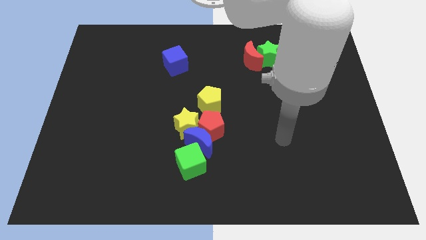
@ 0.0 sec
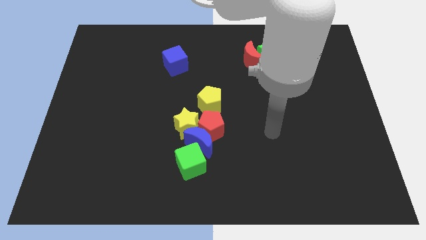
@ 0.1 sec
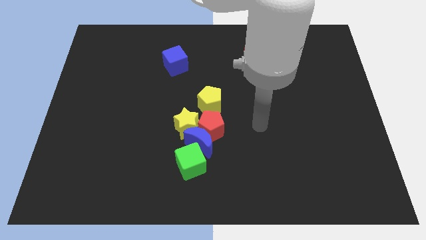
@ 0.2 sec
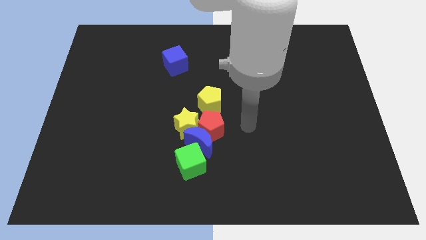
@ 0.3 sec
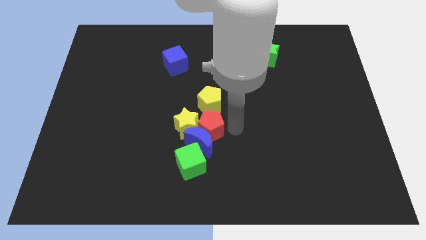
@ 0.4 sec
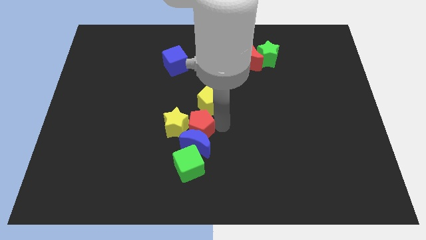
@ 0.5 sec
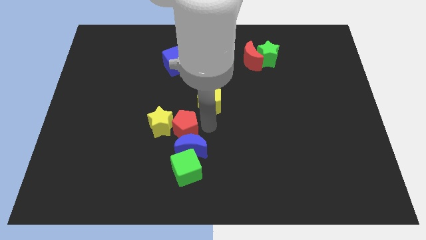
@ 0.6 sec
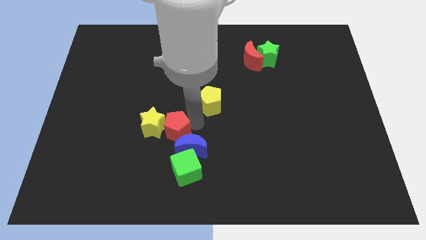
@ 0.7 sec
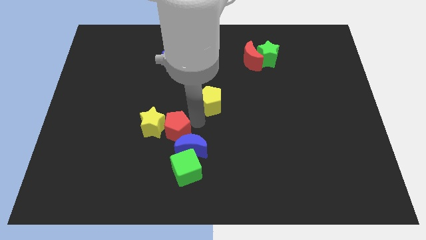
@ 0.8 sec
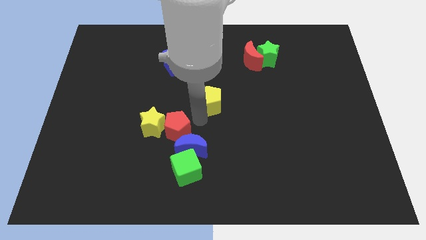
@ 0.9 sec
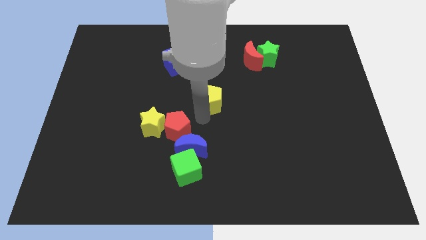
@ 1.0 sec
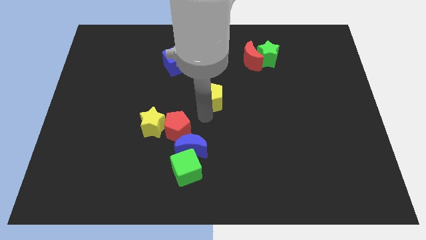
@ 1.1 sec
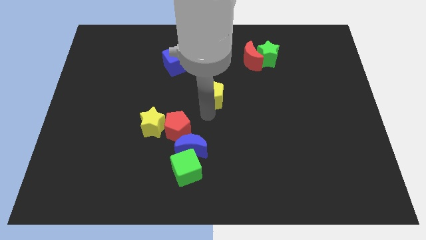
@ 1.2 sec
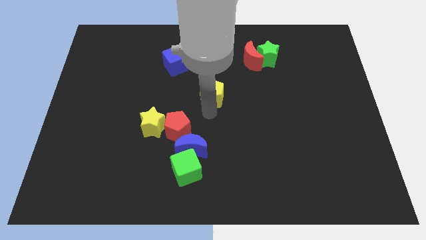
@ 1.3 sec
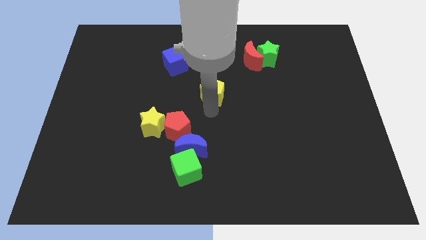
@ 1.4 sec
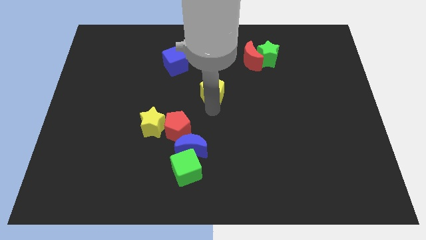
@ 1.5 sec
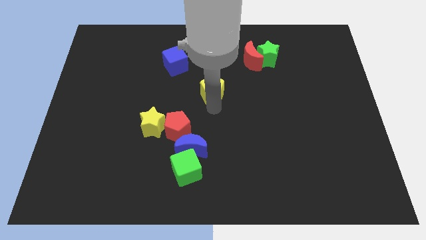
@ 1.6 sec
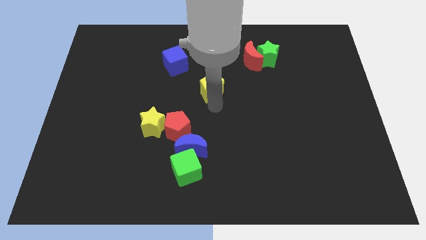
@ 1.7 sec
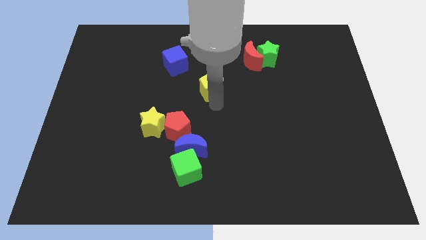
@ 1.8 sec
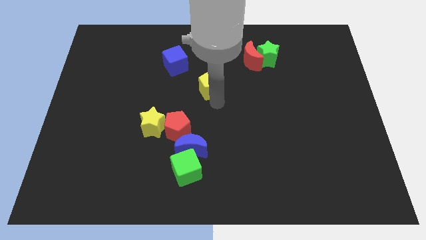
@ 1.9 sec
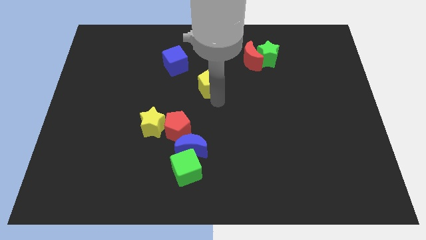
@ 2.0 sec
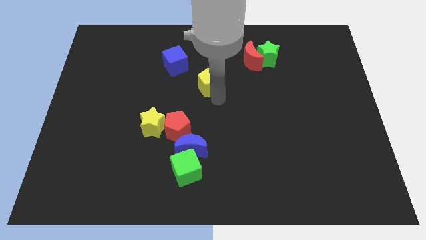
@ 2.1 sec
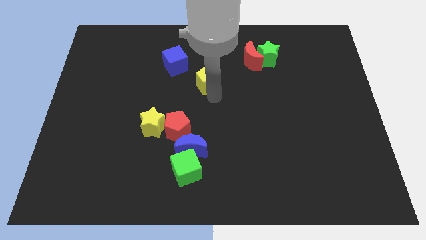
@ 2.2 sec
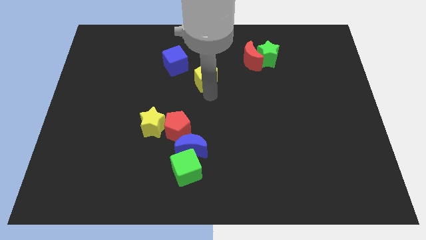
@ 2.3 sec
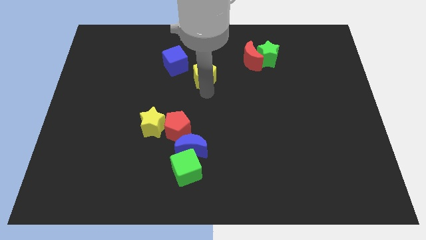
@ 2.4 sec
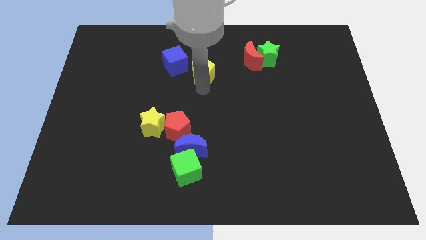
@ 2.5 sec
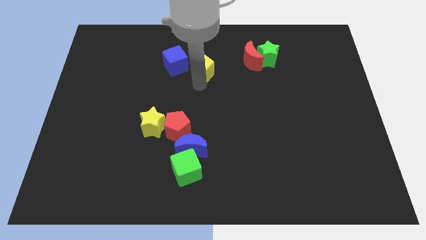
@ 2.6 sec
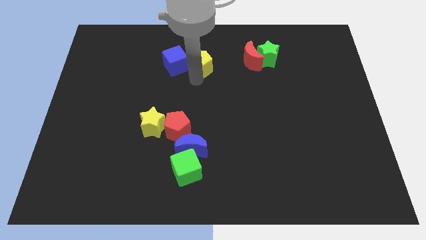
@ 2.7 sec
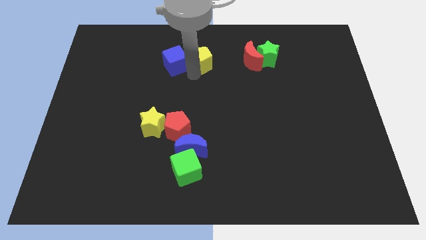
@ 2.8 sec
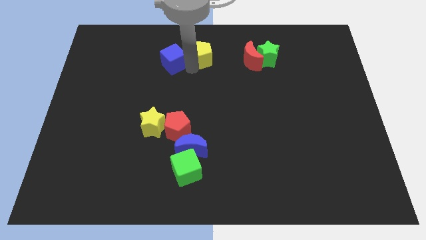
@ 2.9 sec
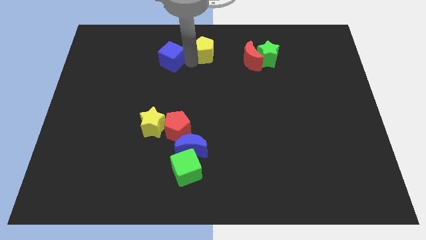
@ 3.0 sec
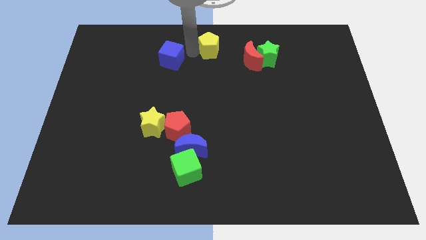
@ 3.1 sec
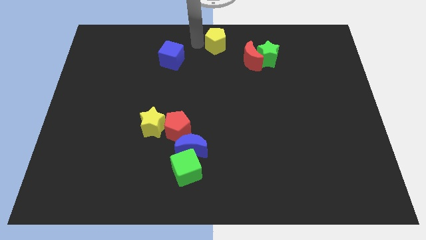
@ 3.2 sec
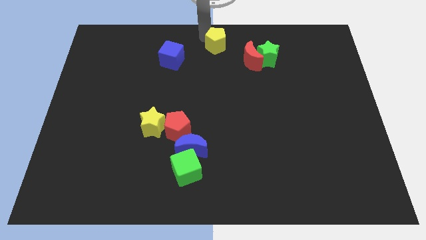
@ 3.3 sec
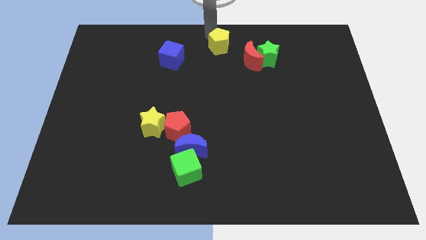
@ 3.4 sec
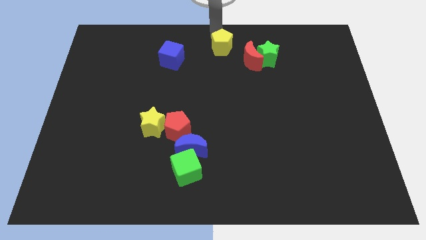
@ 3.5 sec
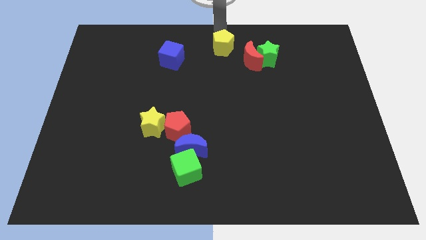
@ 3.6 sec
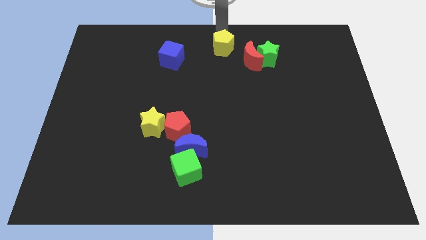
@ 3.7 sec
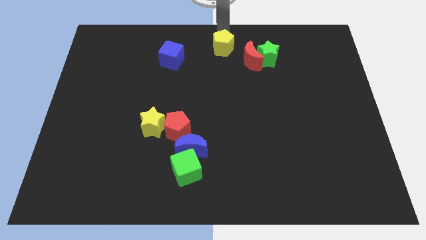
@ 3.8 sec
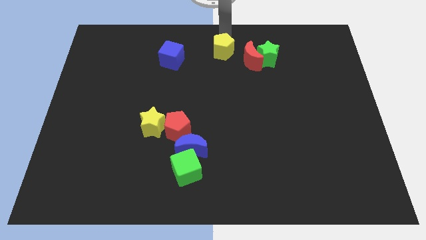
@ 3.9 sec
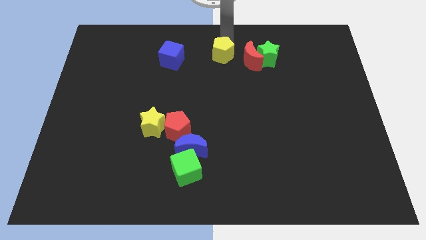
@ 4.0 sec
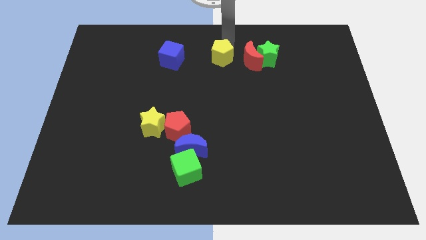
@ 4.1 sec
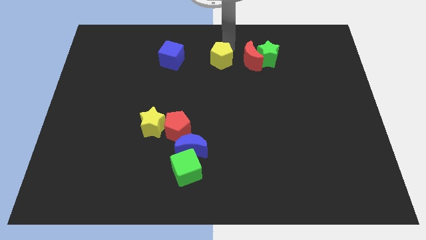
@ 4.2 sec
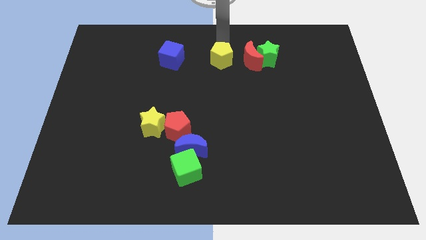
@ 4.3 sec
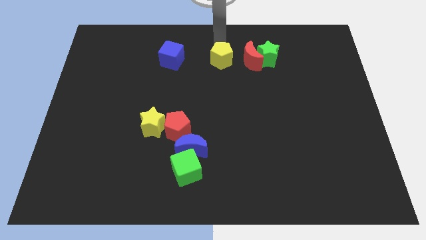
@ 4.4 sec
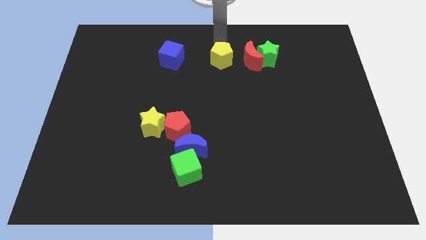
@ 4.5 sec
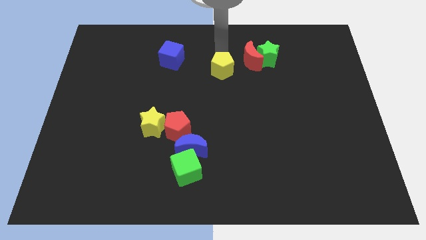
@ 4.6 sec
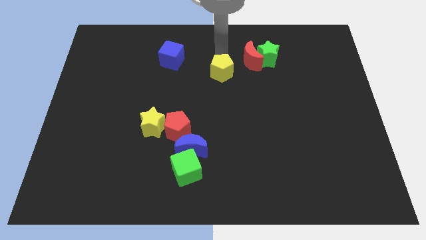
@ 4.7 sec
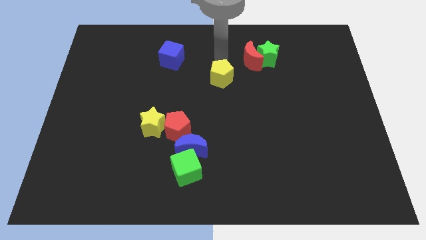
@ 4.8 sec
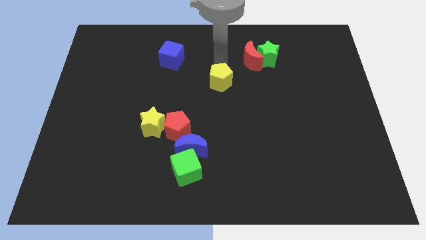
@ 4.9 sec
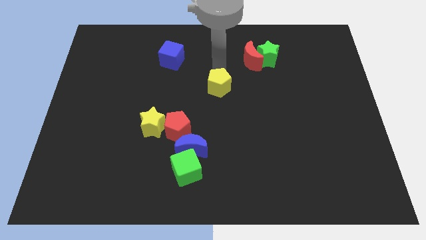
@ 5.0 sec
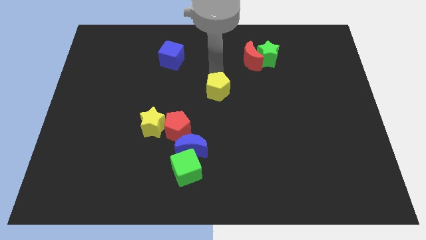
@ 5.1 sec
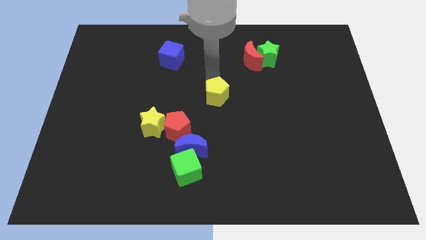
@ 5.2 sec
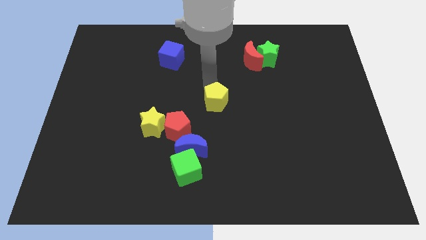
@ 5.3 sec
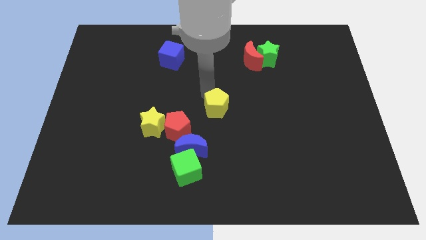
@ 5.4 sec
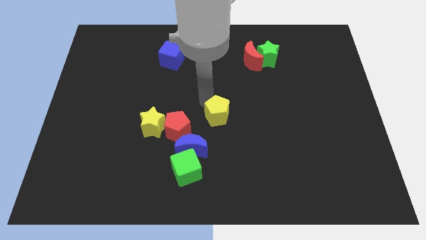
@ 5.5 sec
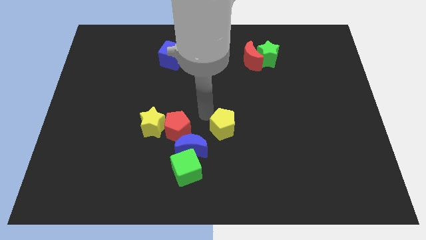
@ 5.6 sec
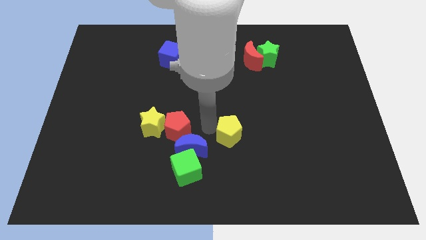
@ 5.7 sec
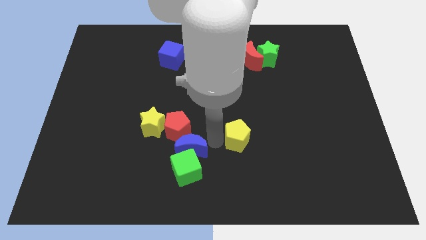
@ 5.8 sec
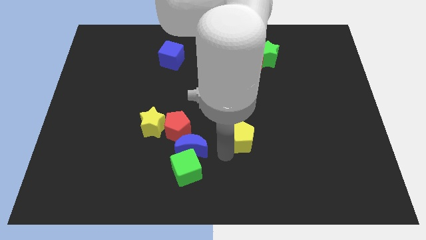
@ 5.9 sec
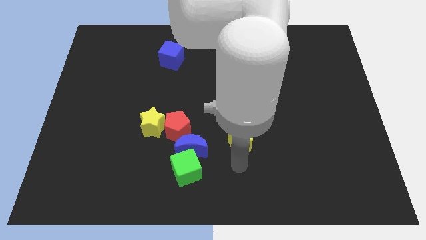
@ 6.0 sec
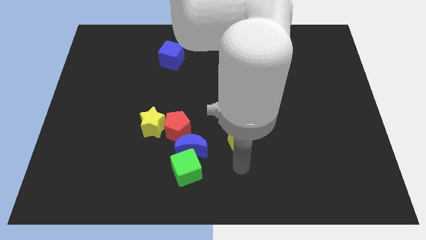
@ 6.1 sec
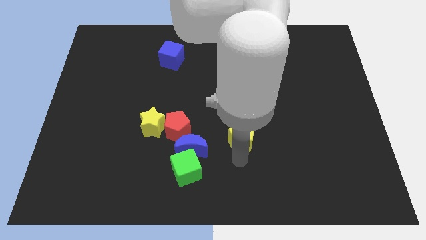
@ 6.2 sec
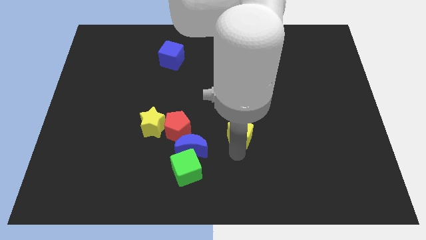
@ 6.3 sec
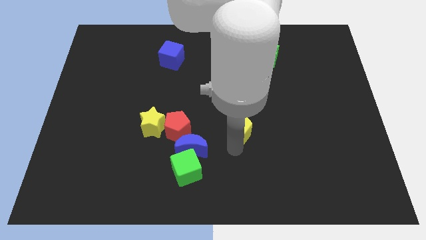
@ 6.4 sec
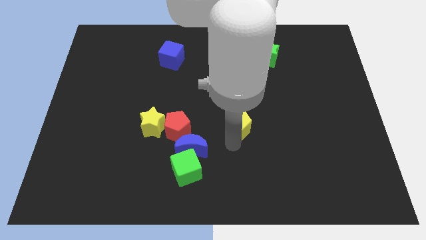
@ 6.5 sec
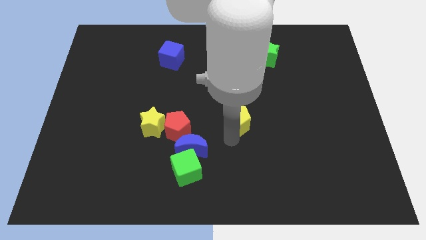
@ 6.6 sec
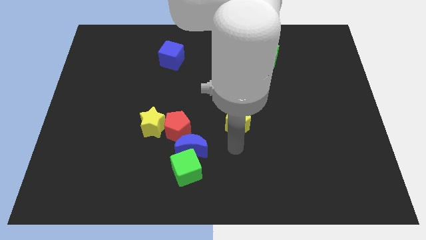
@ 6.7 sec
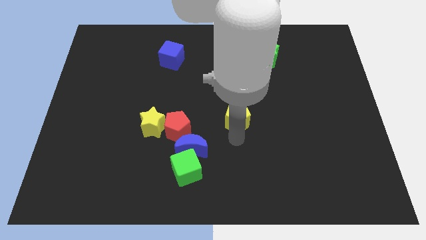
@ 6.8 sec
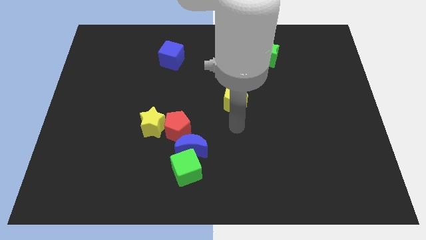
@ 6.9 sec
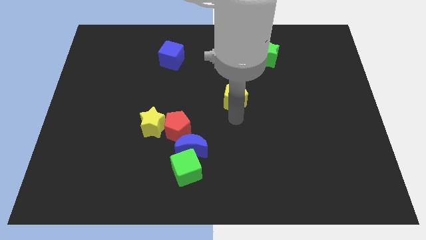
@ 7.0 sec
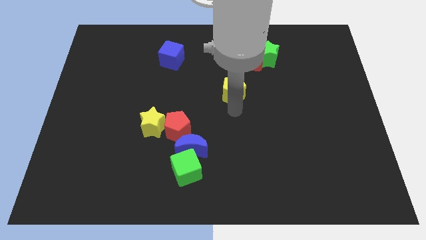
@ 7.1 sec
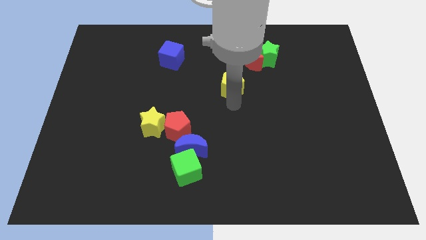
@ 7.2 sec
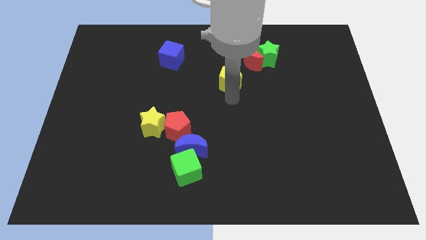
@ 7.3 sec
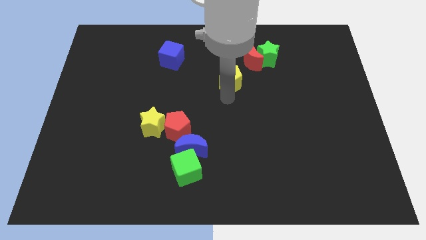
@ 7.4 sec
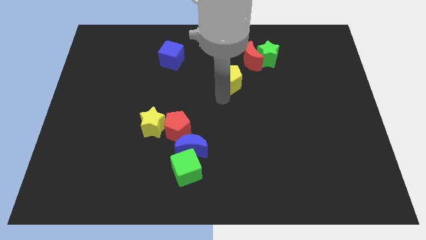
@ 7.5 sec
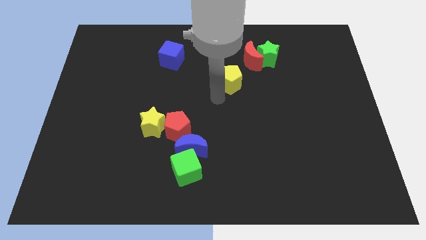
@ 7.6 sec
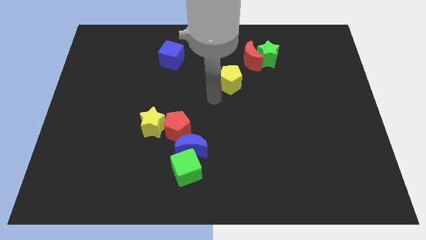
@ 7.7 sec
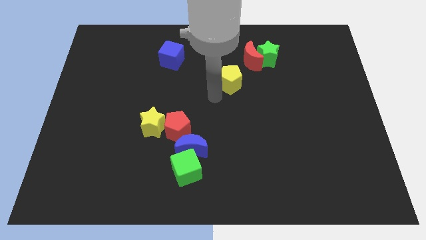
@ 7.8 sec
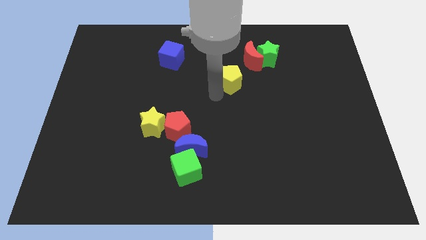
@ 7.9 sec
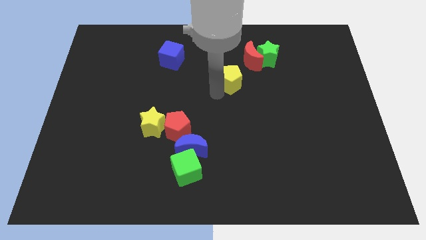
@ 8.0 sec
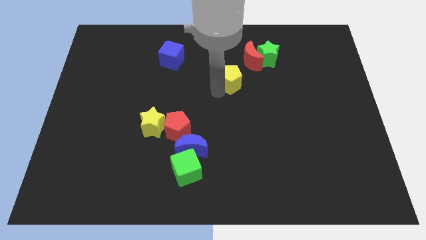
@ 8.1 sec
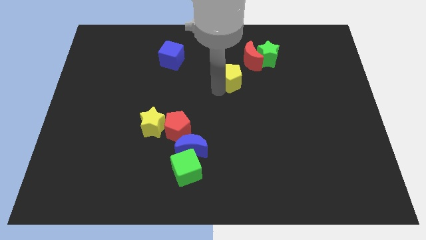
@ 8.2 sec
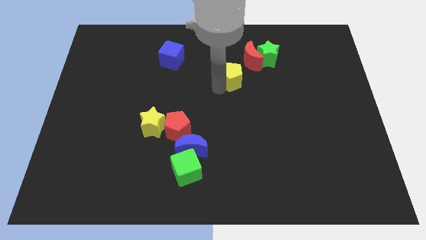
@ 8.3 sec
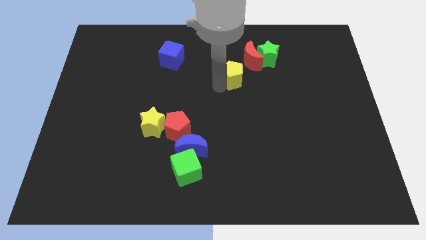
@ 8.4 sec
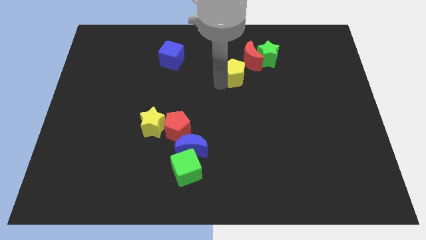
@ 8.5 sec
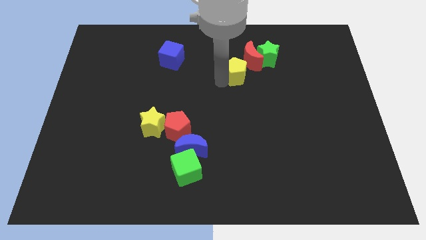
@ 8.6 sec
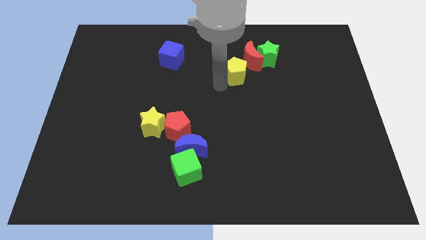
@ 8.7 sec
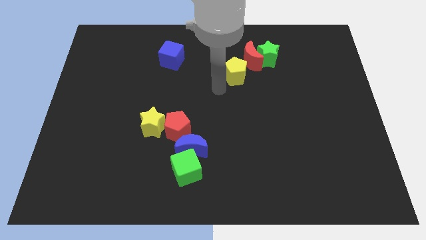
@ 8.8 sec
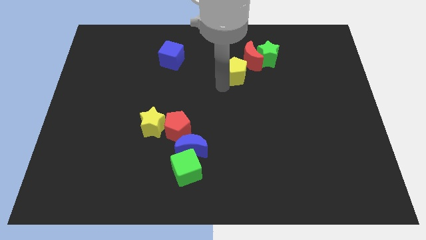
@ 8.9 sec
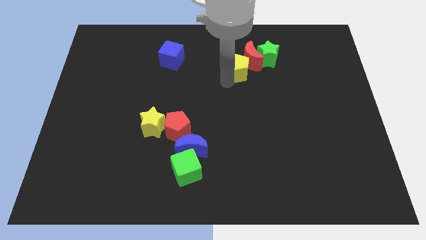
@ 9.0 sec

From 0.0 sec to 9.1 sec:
slide the yellow pentagon close to the red moon
